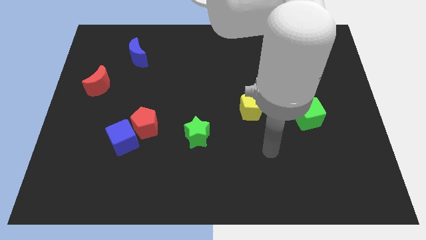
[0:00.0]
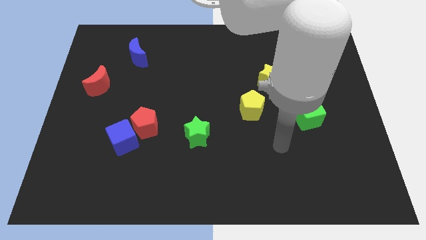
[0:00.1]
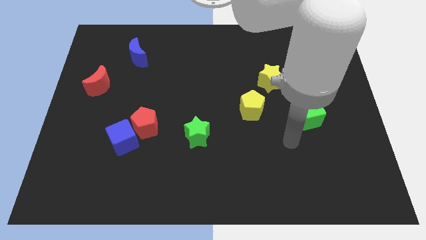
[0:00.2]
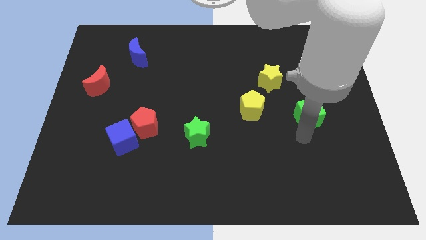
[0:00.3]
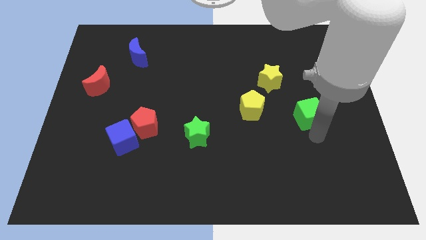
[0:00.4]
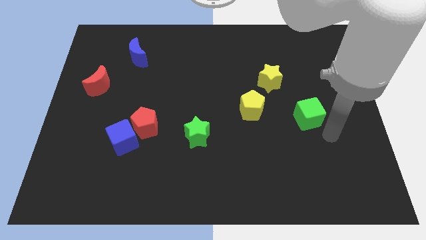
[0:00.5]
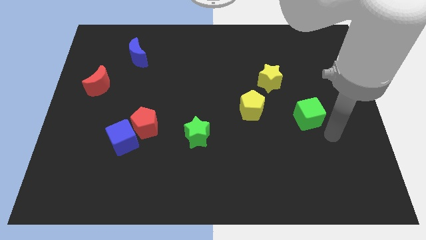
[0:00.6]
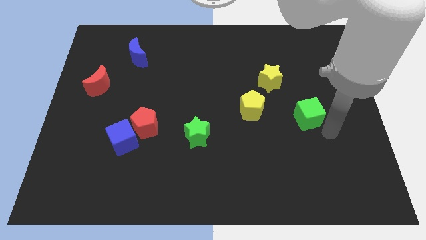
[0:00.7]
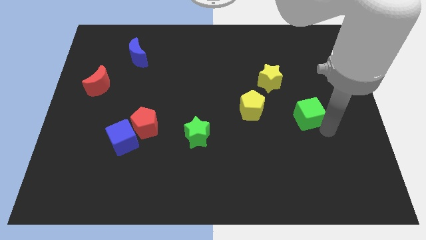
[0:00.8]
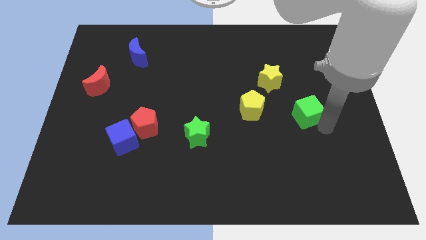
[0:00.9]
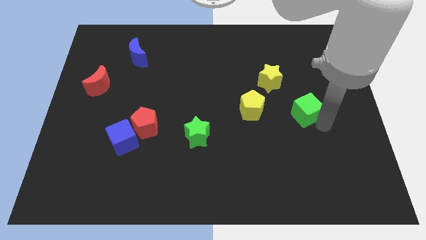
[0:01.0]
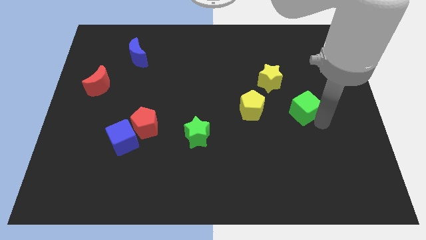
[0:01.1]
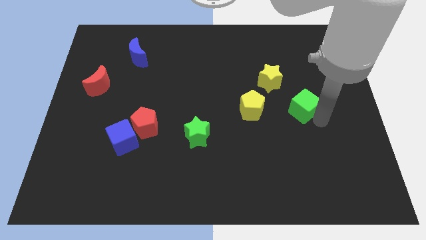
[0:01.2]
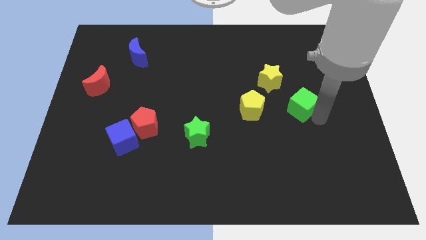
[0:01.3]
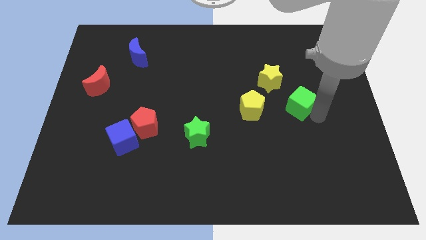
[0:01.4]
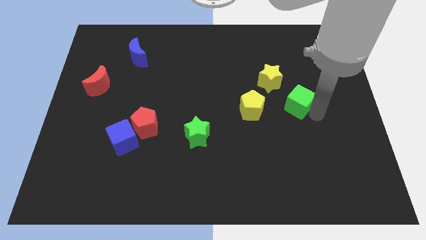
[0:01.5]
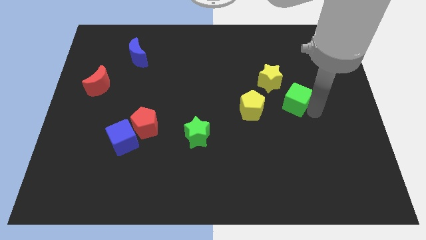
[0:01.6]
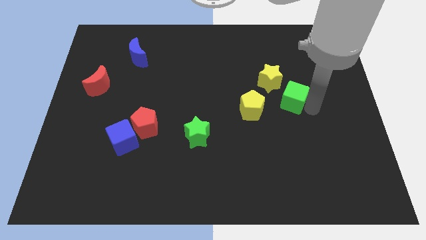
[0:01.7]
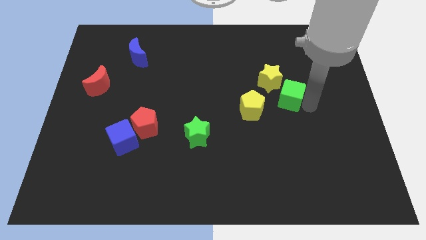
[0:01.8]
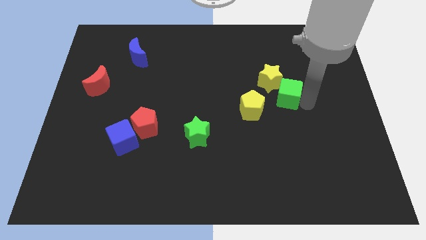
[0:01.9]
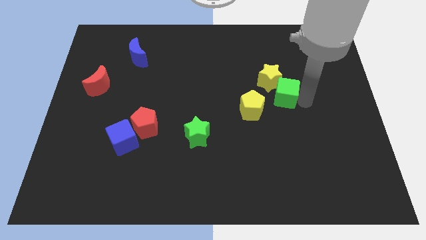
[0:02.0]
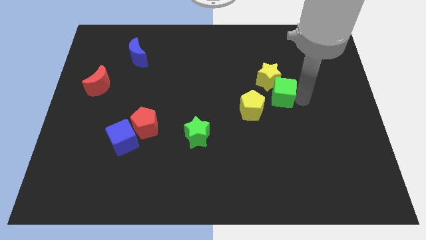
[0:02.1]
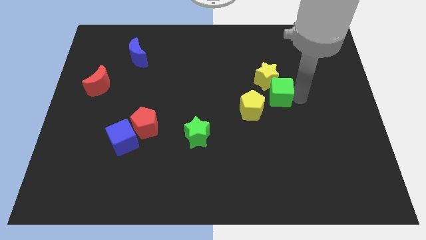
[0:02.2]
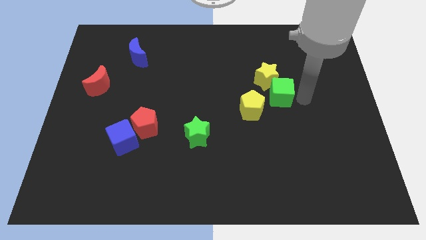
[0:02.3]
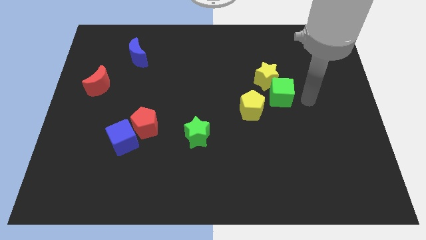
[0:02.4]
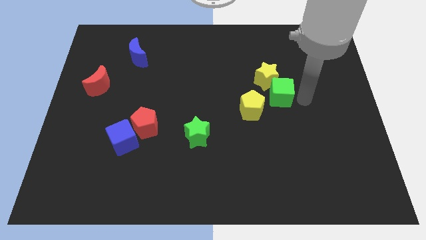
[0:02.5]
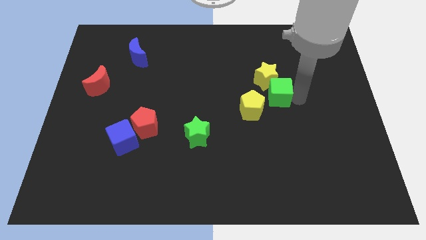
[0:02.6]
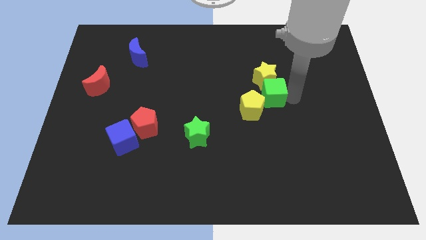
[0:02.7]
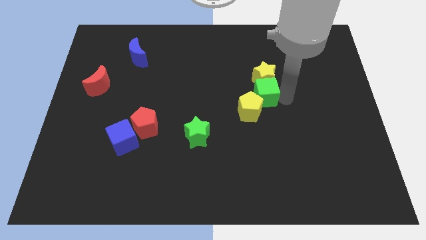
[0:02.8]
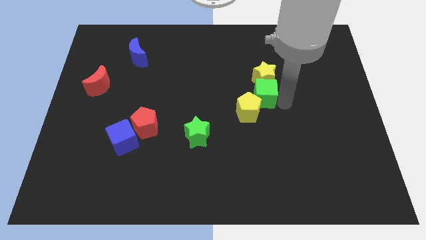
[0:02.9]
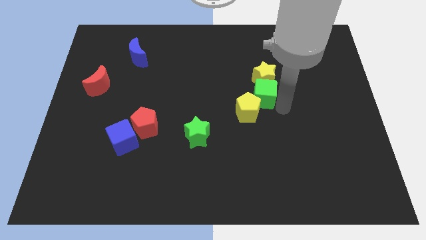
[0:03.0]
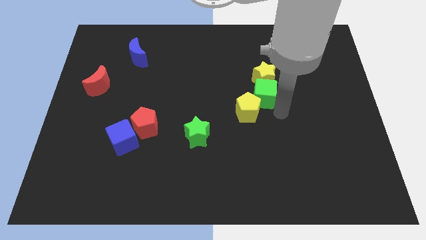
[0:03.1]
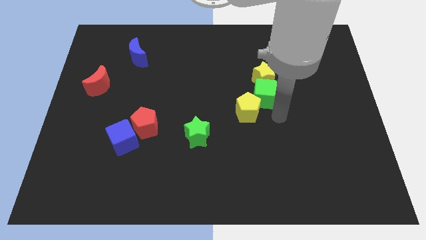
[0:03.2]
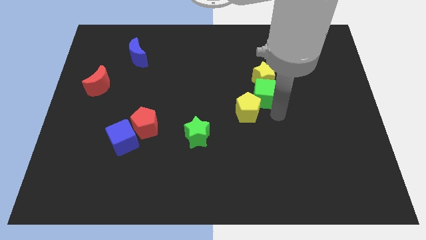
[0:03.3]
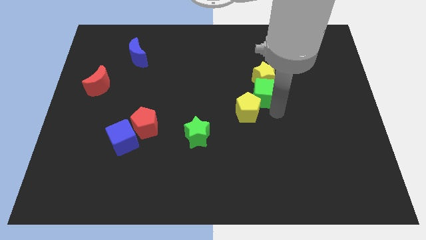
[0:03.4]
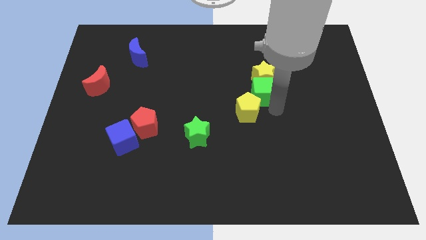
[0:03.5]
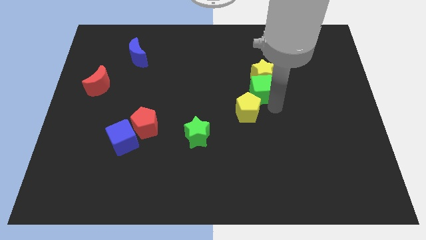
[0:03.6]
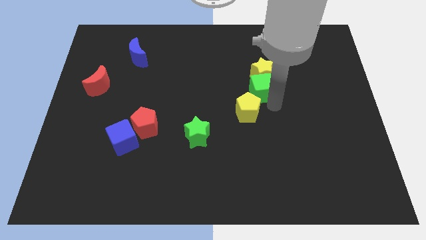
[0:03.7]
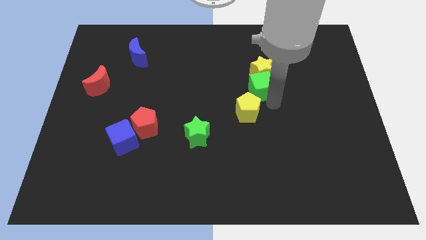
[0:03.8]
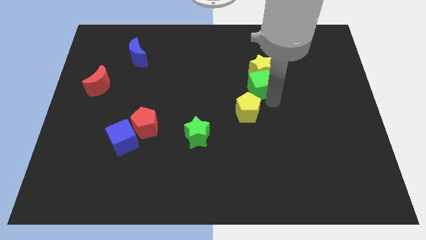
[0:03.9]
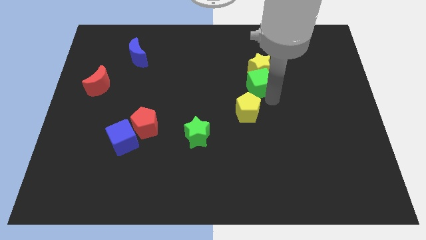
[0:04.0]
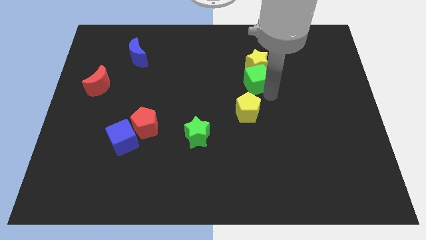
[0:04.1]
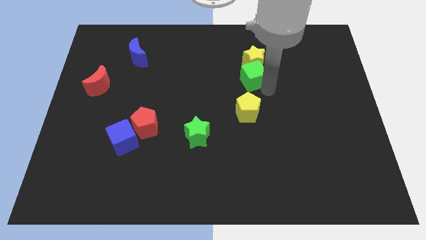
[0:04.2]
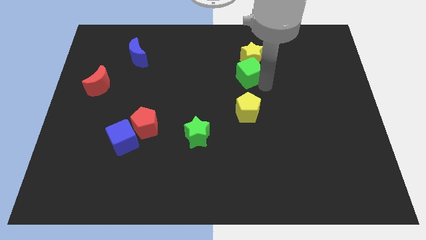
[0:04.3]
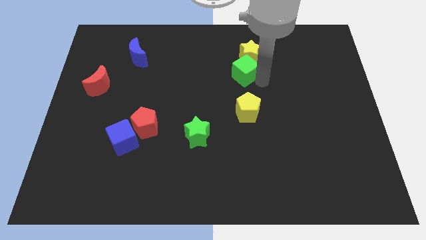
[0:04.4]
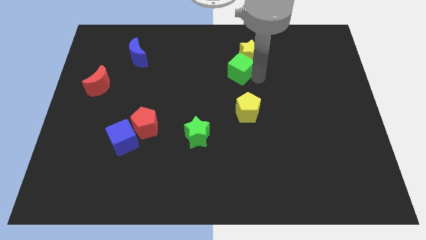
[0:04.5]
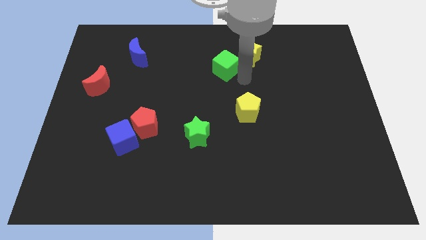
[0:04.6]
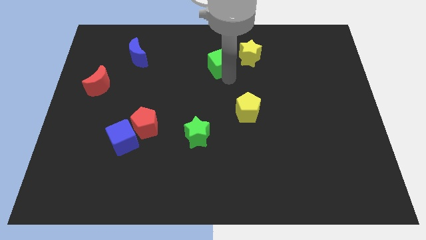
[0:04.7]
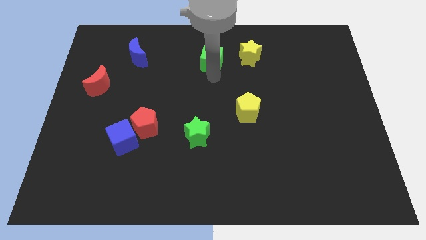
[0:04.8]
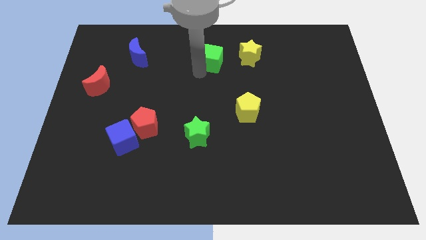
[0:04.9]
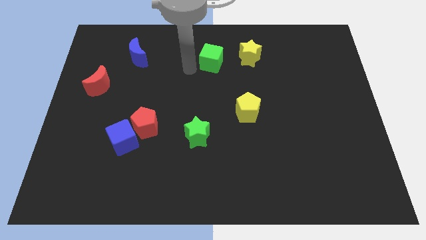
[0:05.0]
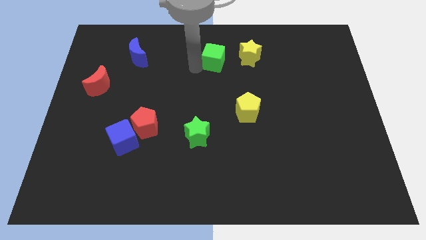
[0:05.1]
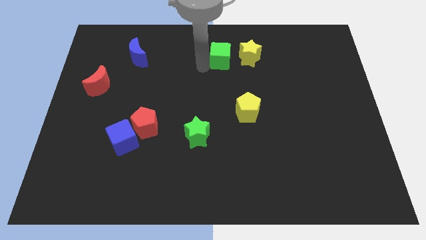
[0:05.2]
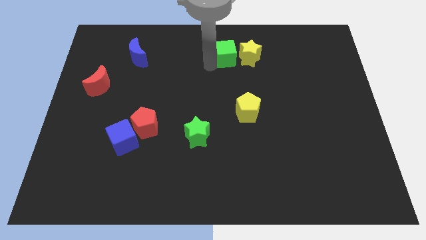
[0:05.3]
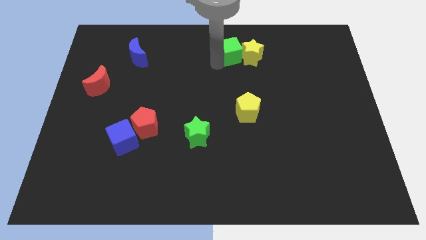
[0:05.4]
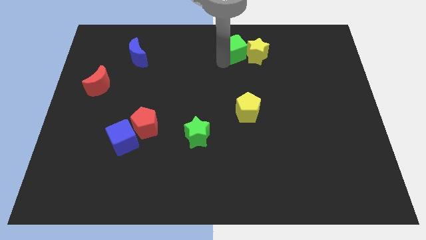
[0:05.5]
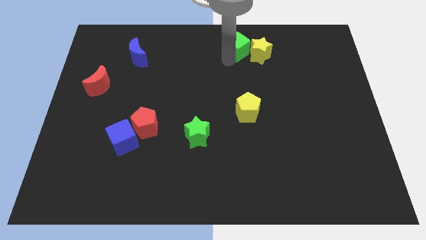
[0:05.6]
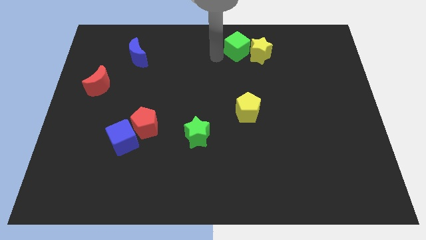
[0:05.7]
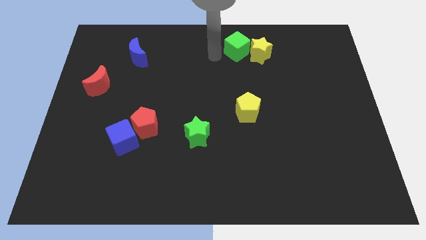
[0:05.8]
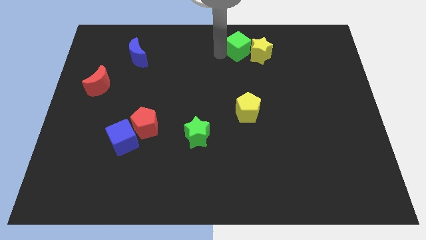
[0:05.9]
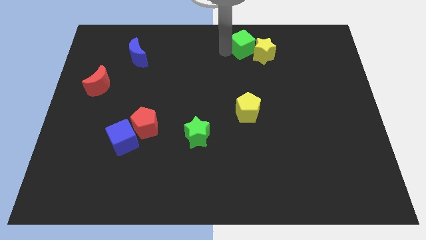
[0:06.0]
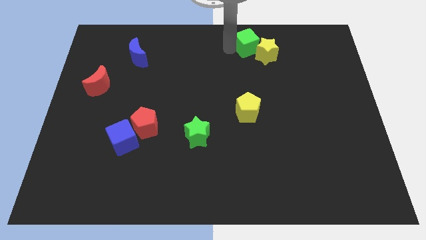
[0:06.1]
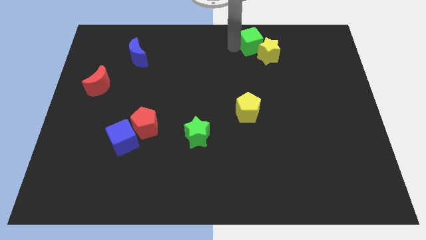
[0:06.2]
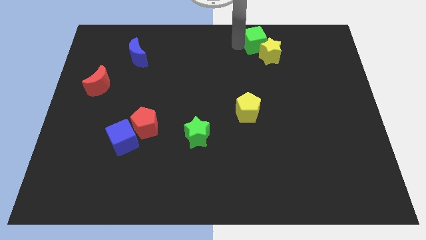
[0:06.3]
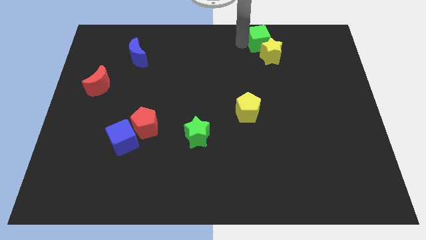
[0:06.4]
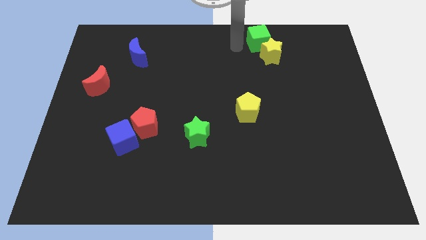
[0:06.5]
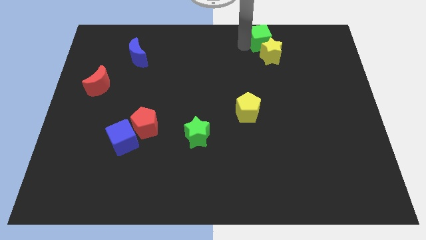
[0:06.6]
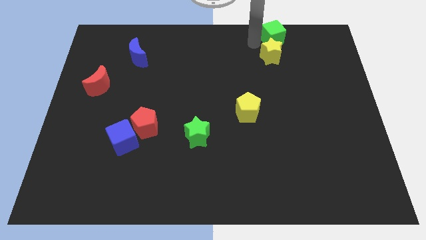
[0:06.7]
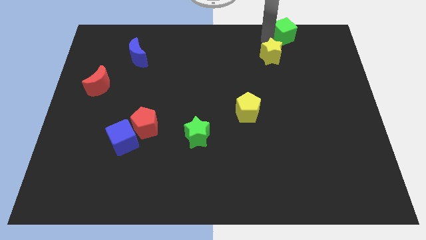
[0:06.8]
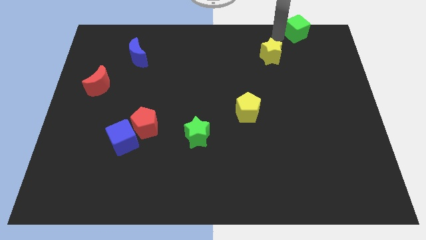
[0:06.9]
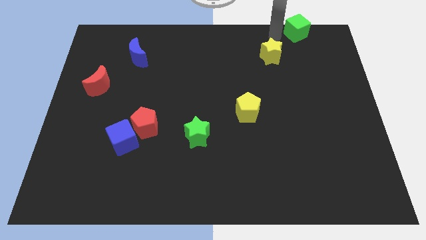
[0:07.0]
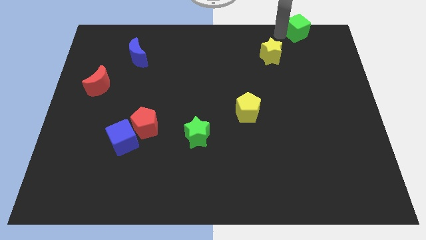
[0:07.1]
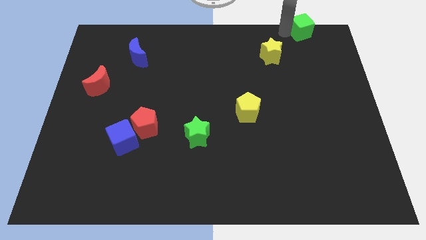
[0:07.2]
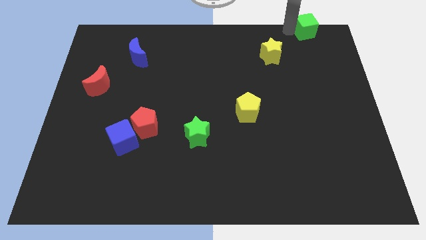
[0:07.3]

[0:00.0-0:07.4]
push the green cube to the upper right corner
